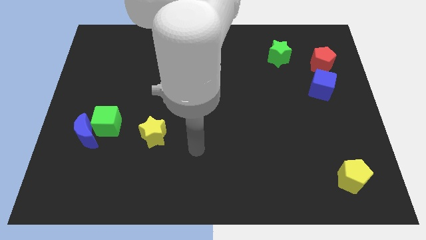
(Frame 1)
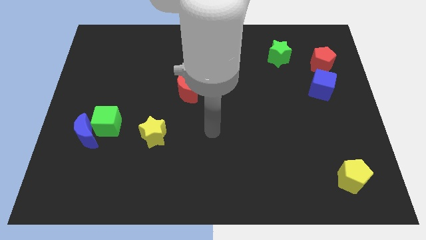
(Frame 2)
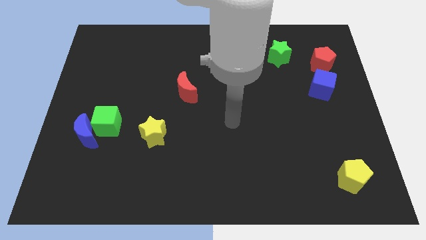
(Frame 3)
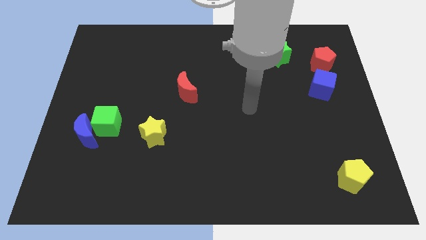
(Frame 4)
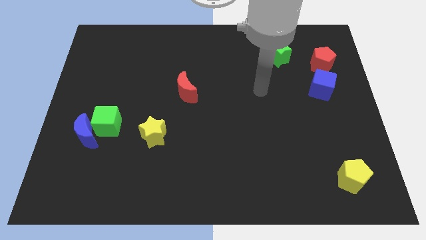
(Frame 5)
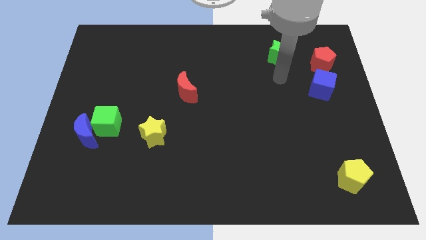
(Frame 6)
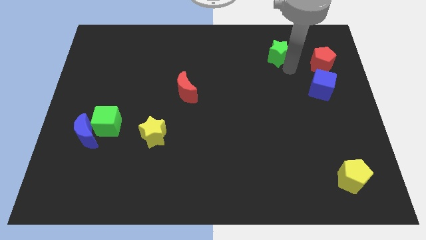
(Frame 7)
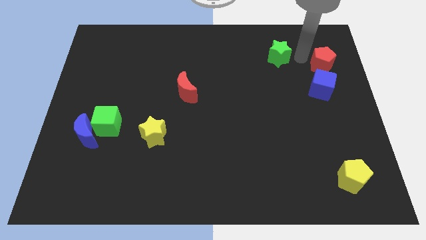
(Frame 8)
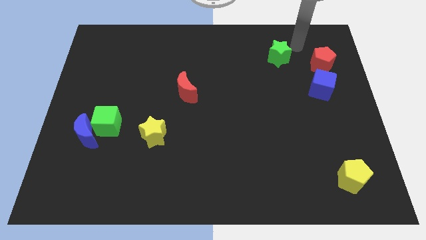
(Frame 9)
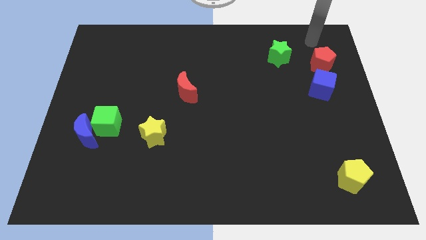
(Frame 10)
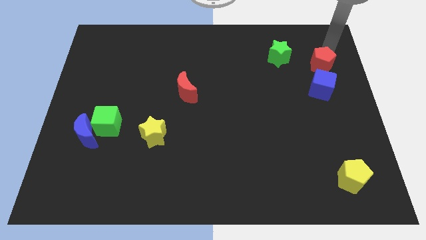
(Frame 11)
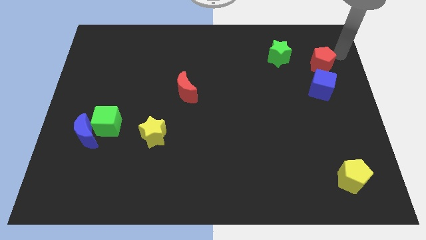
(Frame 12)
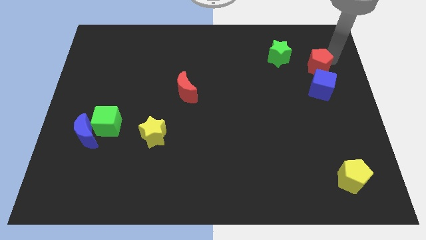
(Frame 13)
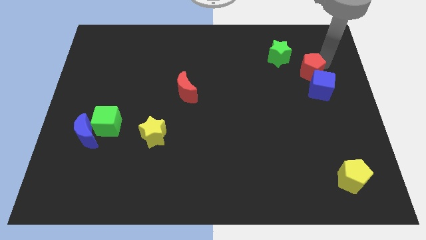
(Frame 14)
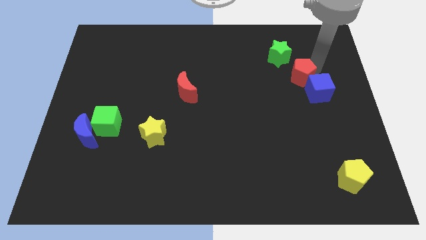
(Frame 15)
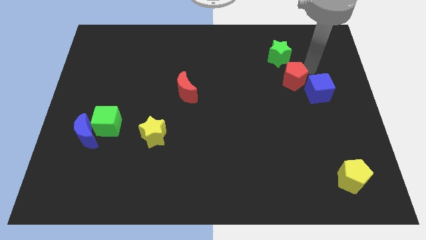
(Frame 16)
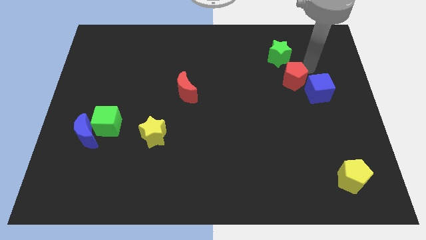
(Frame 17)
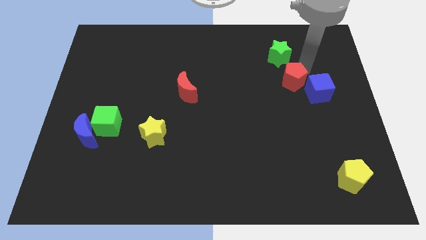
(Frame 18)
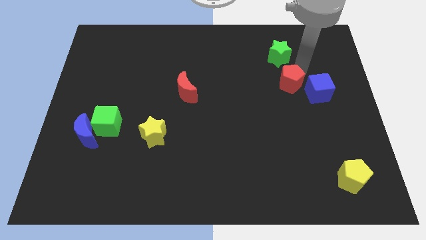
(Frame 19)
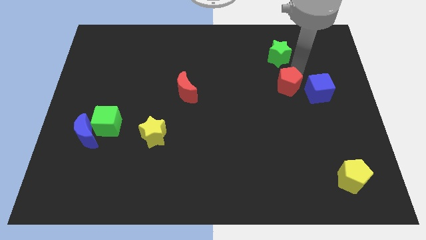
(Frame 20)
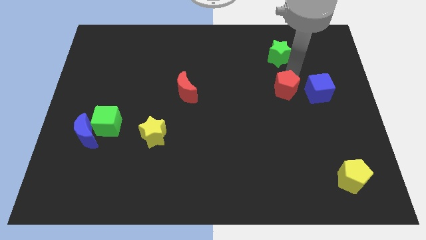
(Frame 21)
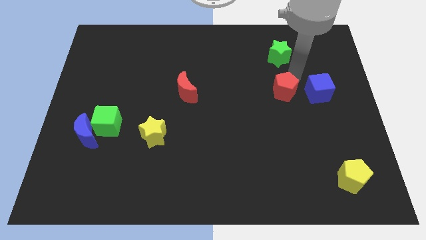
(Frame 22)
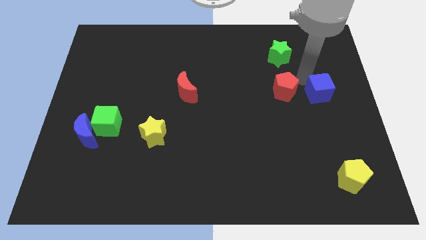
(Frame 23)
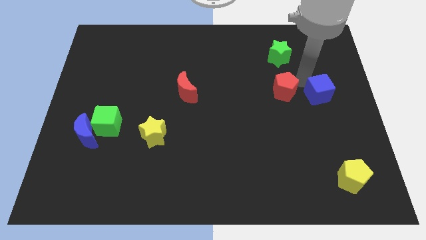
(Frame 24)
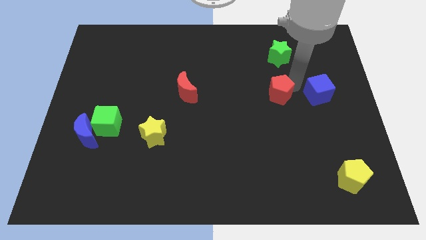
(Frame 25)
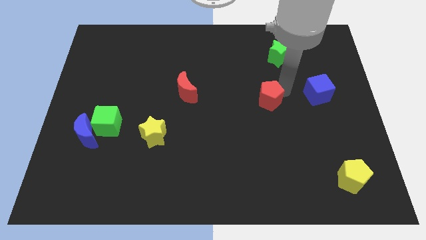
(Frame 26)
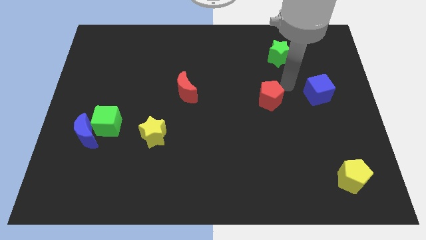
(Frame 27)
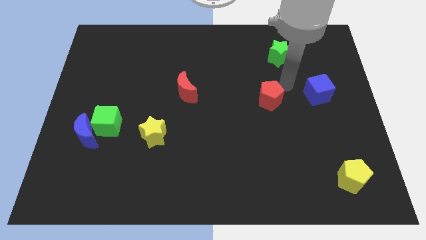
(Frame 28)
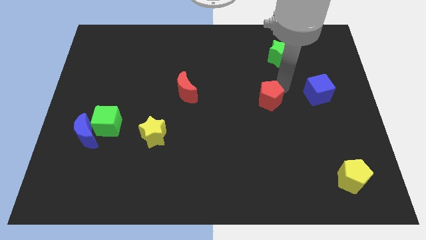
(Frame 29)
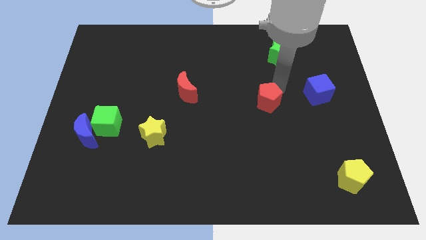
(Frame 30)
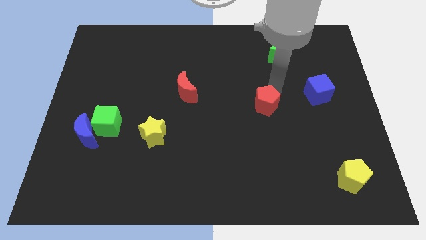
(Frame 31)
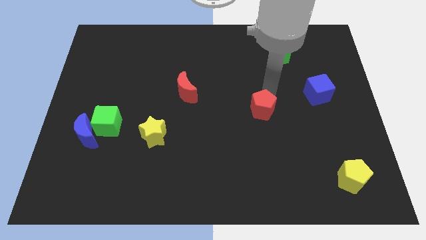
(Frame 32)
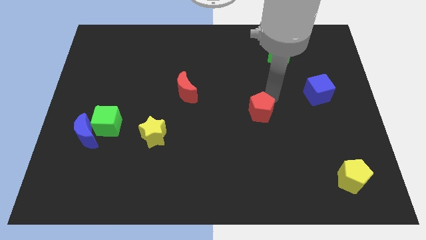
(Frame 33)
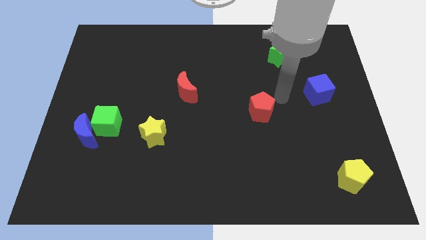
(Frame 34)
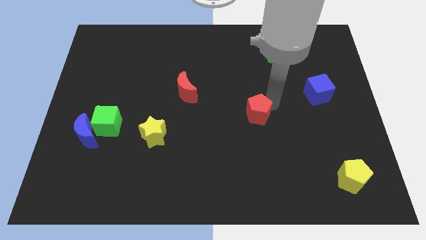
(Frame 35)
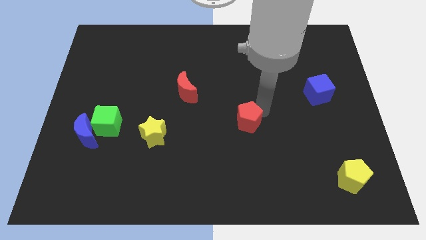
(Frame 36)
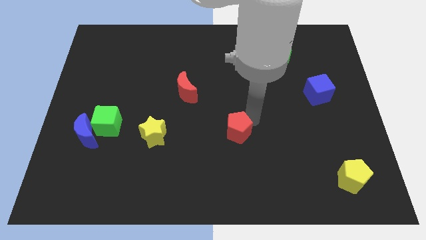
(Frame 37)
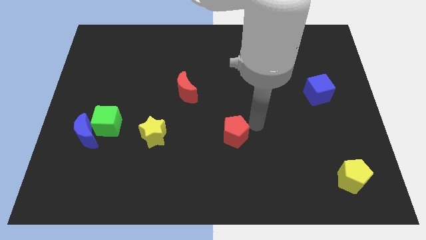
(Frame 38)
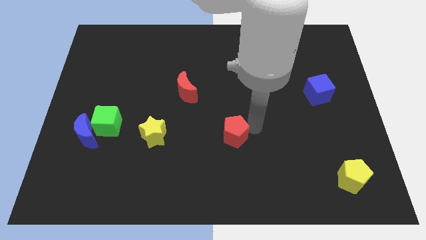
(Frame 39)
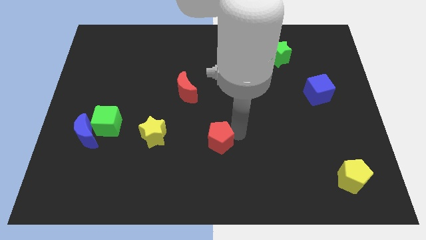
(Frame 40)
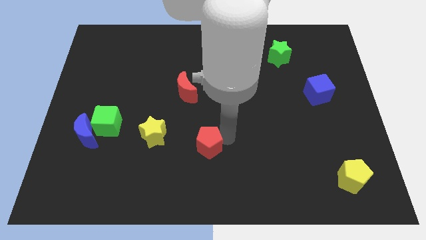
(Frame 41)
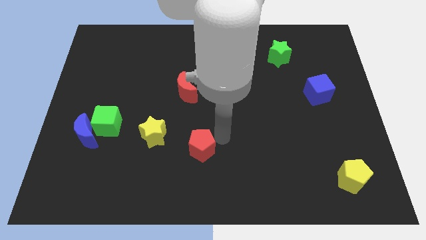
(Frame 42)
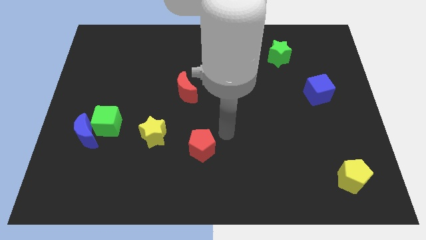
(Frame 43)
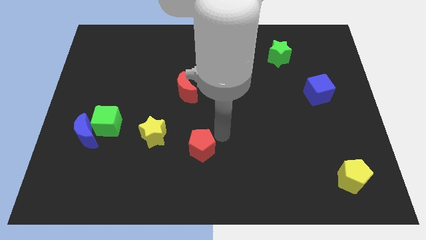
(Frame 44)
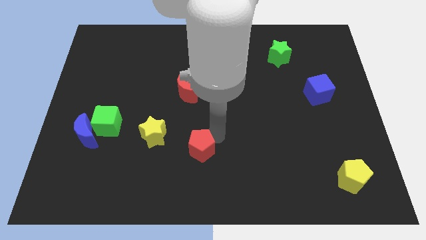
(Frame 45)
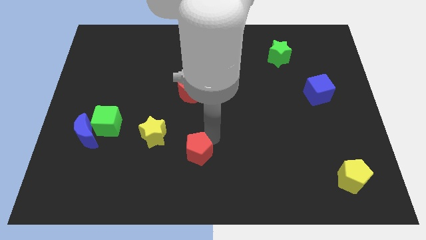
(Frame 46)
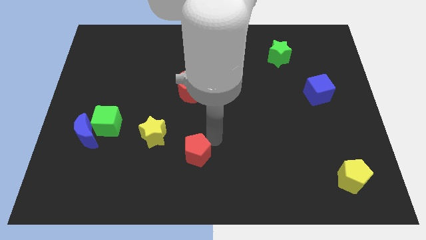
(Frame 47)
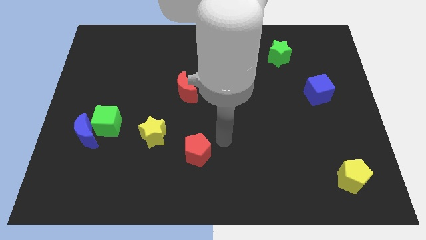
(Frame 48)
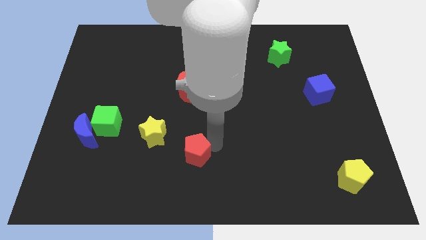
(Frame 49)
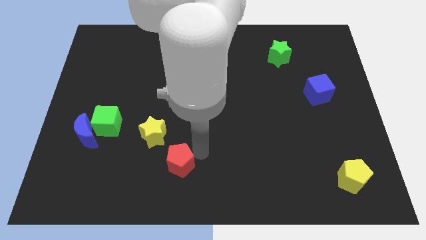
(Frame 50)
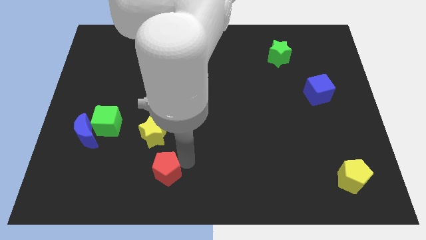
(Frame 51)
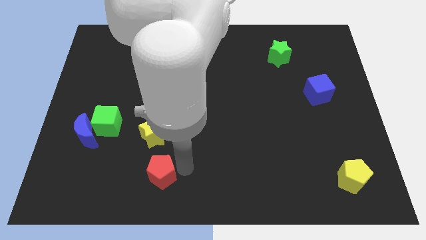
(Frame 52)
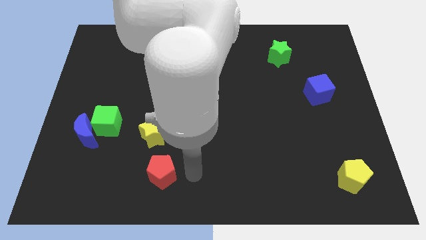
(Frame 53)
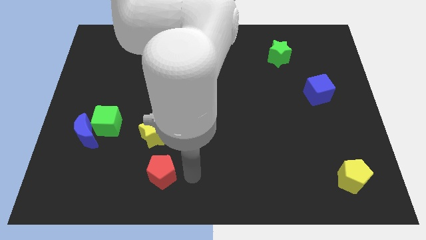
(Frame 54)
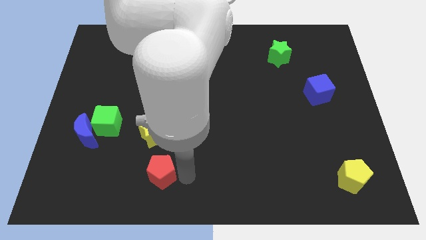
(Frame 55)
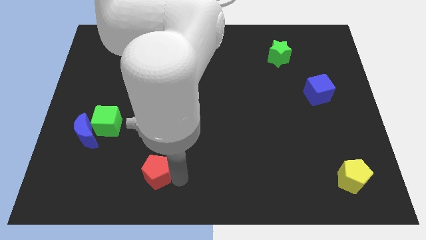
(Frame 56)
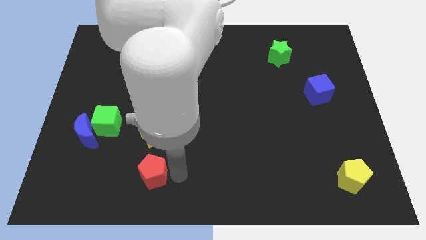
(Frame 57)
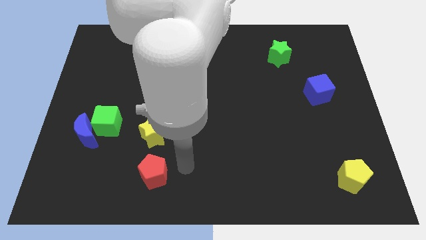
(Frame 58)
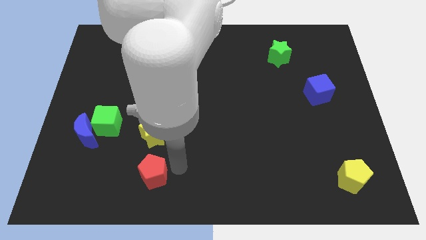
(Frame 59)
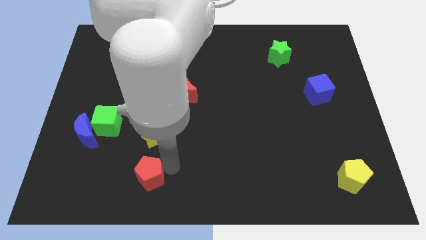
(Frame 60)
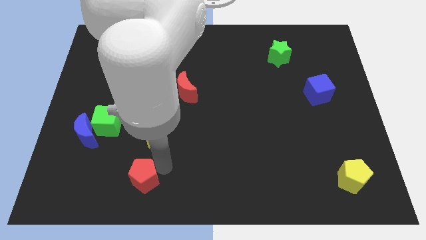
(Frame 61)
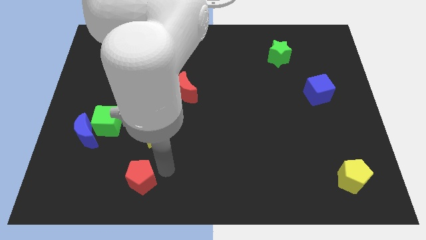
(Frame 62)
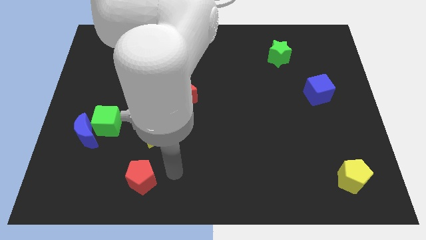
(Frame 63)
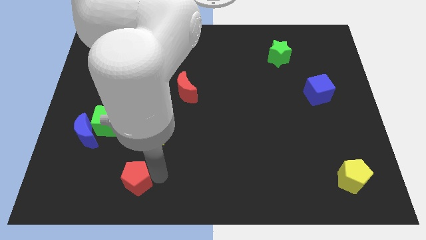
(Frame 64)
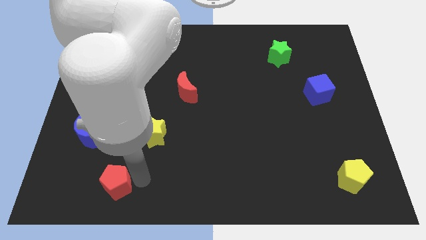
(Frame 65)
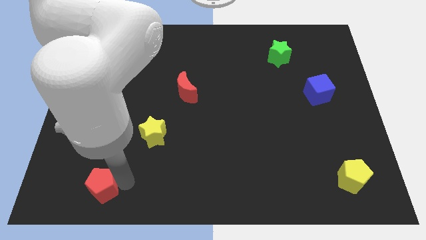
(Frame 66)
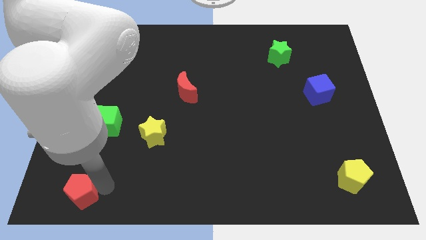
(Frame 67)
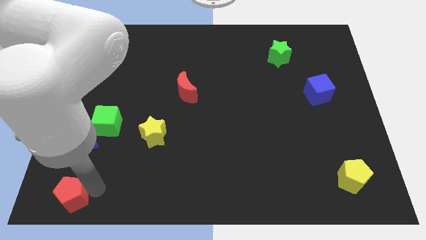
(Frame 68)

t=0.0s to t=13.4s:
move the red pentagon to the bottom left

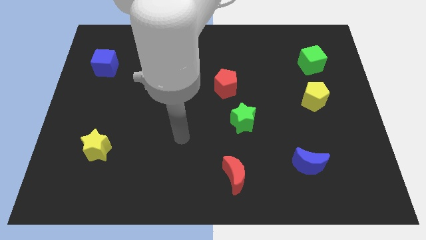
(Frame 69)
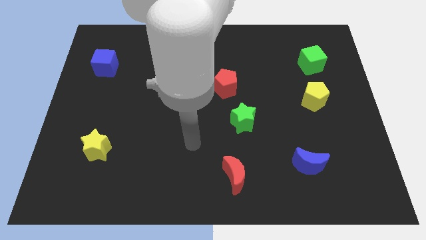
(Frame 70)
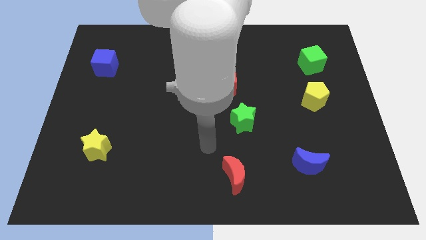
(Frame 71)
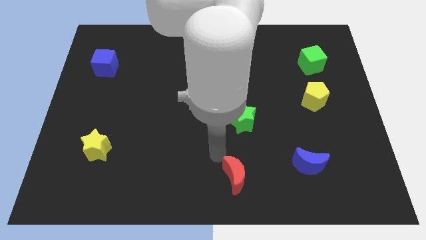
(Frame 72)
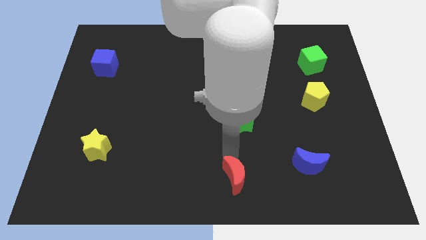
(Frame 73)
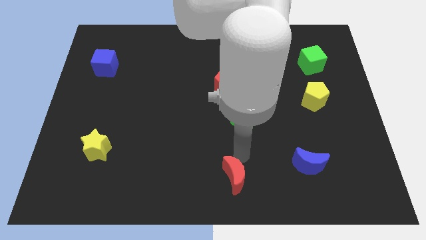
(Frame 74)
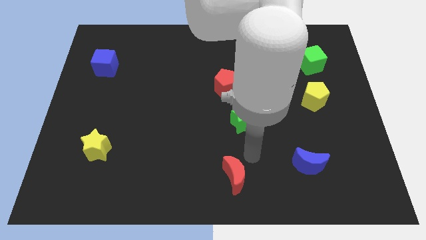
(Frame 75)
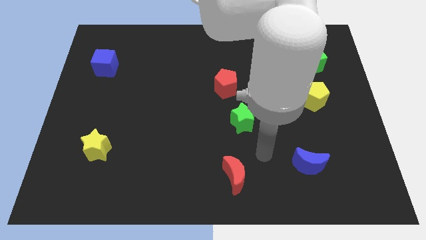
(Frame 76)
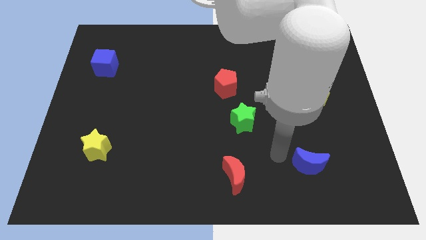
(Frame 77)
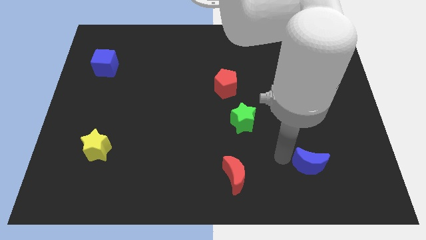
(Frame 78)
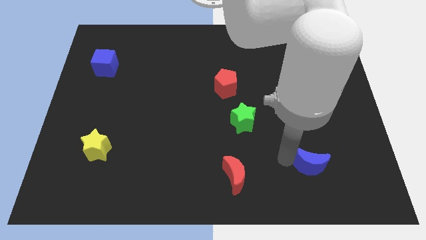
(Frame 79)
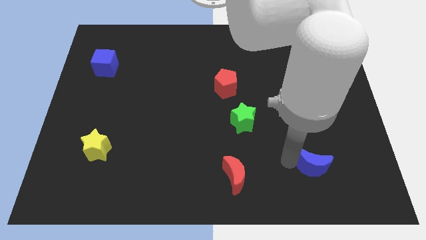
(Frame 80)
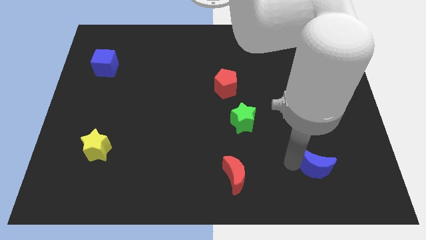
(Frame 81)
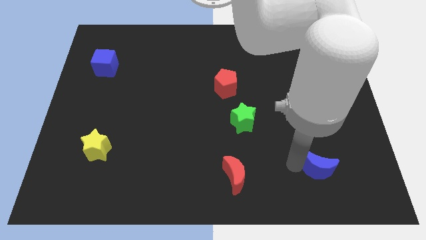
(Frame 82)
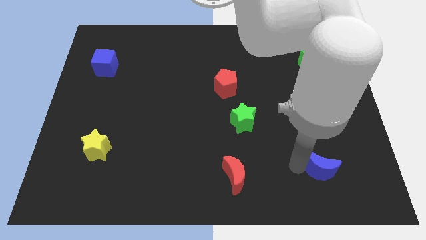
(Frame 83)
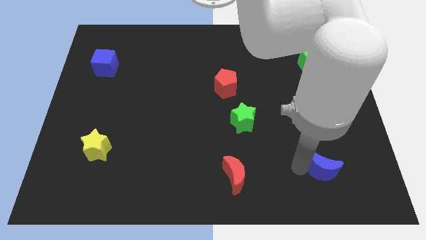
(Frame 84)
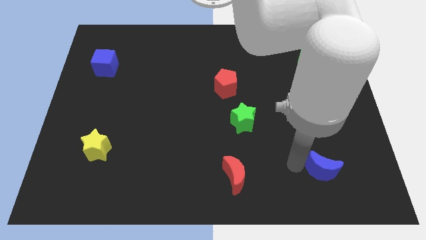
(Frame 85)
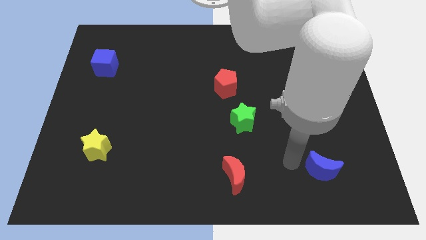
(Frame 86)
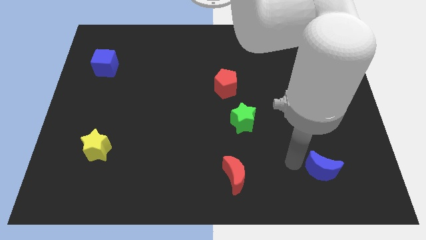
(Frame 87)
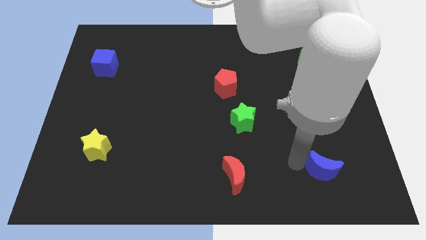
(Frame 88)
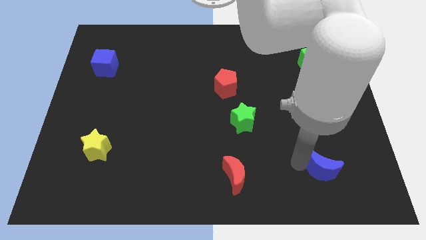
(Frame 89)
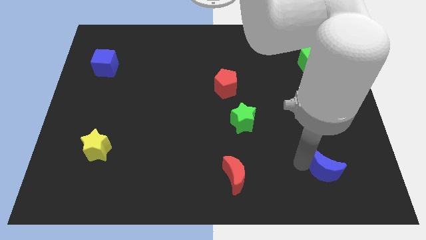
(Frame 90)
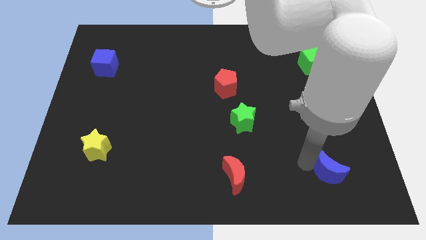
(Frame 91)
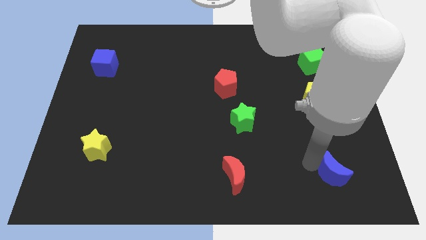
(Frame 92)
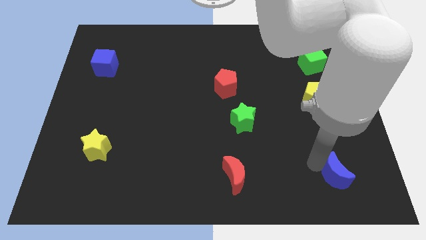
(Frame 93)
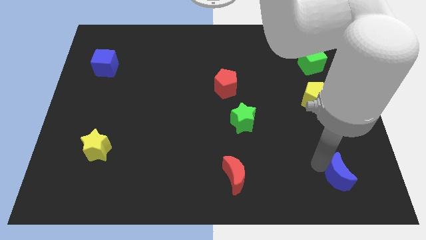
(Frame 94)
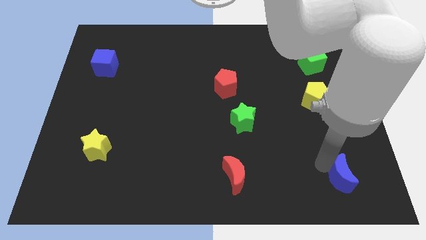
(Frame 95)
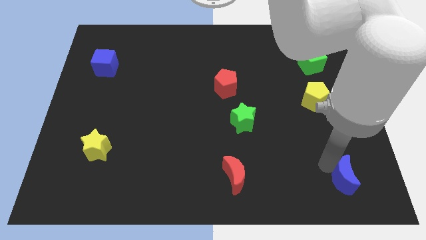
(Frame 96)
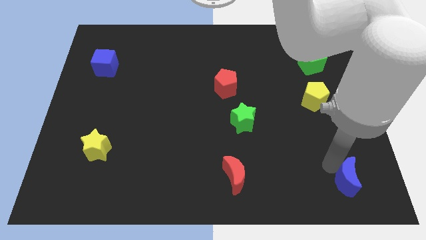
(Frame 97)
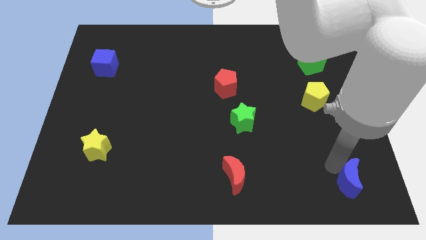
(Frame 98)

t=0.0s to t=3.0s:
put the blue moon to the bottom right
